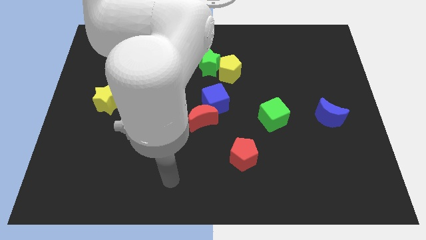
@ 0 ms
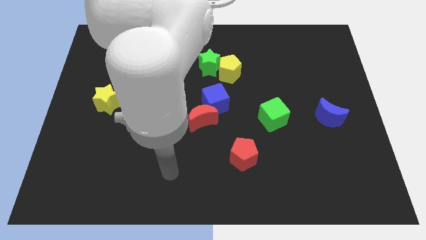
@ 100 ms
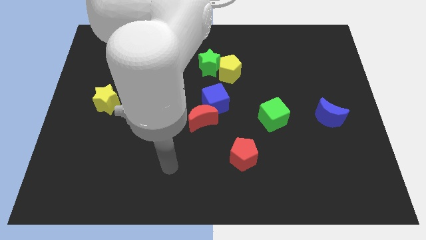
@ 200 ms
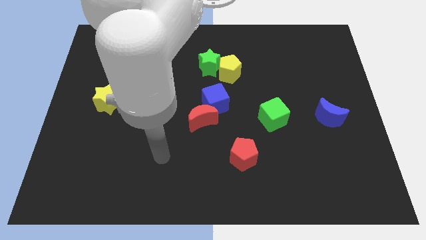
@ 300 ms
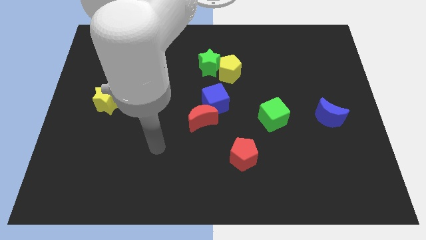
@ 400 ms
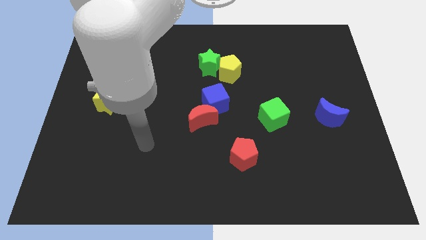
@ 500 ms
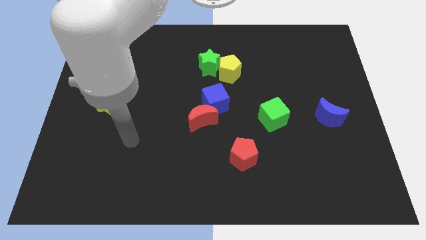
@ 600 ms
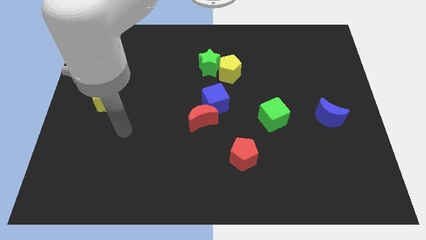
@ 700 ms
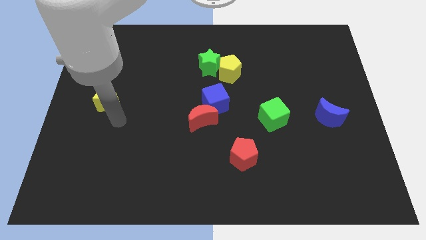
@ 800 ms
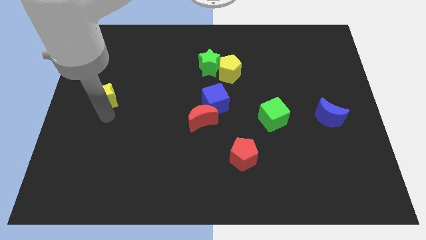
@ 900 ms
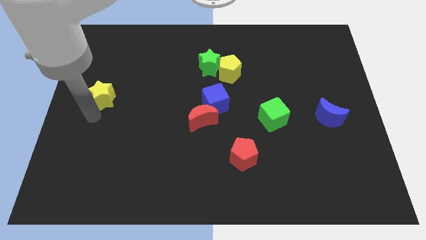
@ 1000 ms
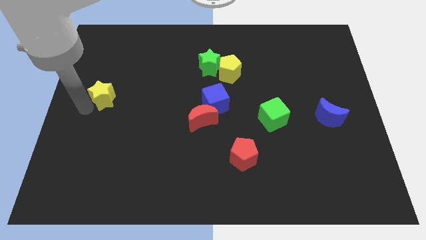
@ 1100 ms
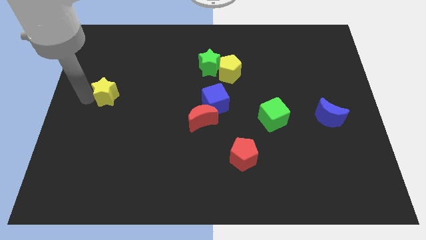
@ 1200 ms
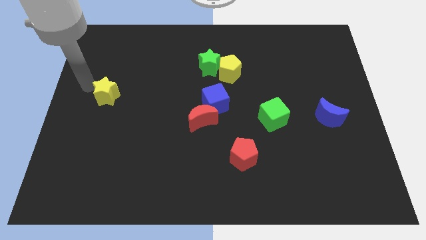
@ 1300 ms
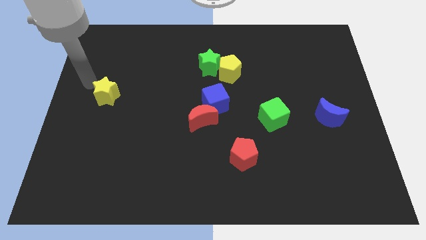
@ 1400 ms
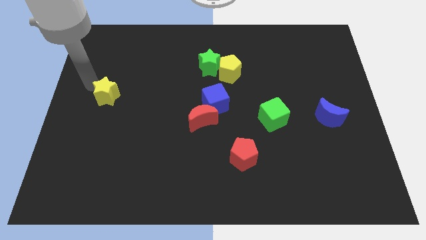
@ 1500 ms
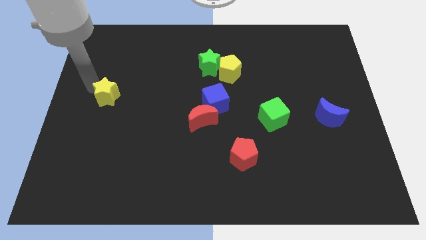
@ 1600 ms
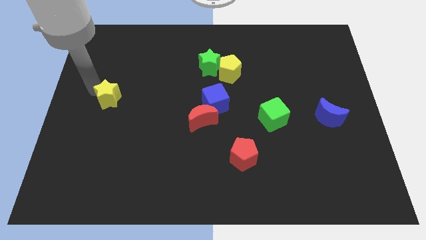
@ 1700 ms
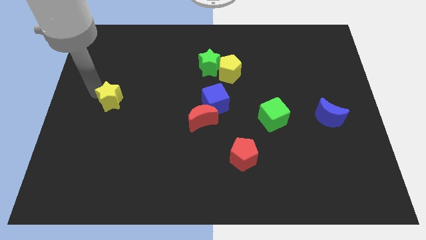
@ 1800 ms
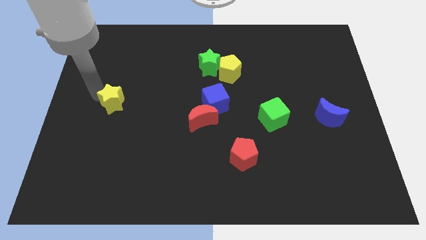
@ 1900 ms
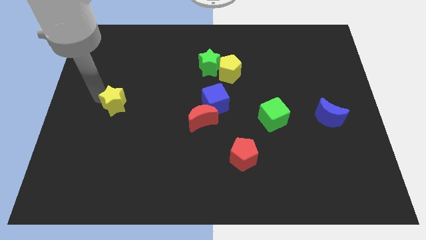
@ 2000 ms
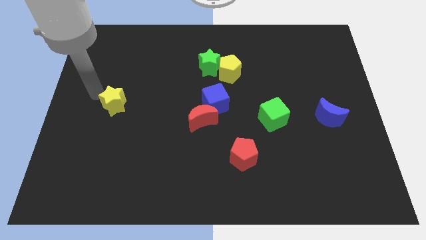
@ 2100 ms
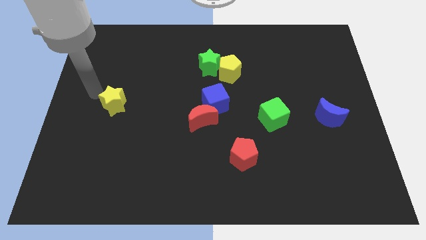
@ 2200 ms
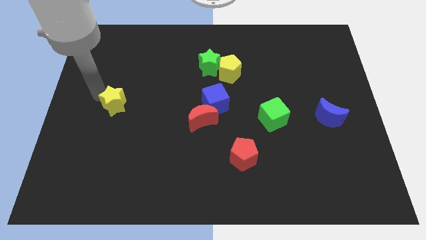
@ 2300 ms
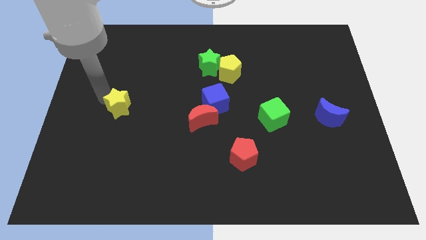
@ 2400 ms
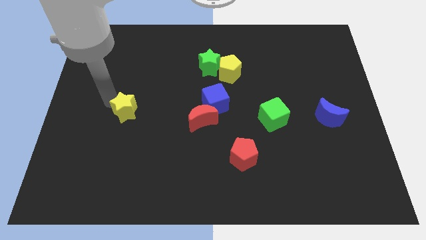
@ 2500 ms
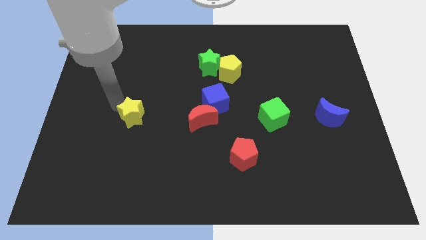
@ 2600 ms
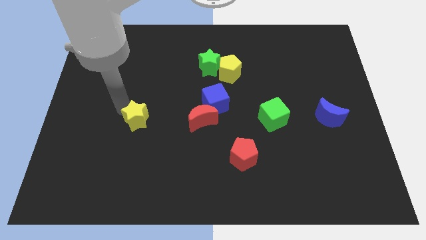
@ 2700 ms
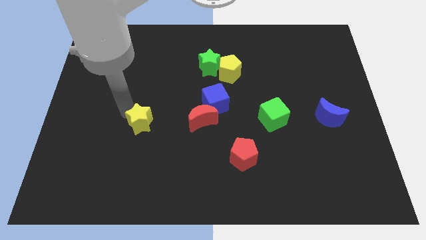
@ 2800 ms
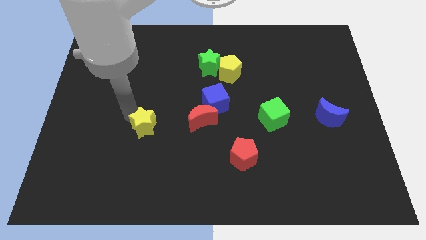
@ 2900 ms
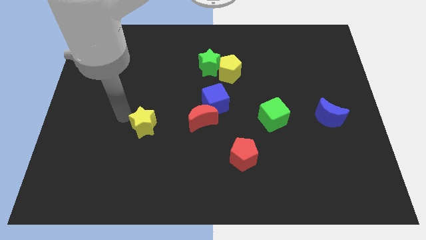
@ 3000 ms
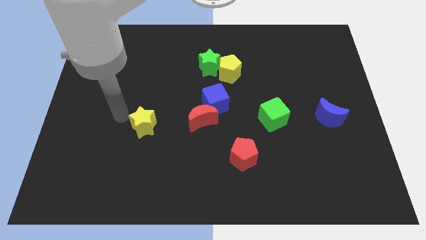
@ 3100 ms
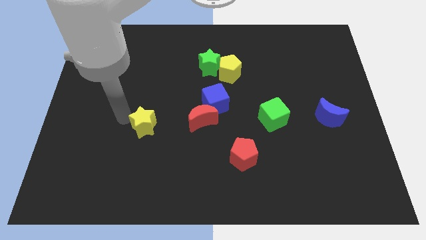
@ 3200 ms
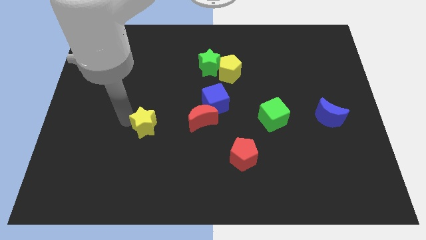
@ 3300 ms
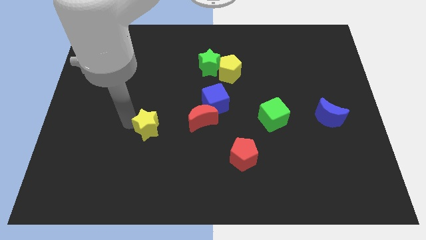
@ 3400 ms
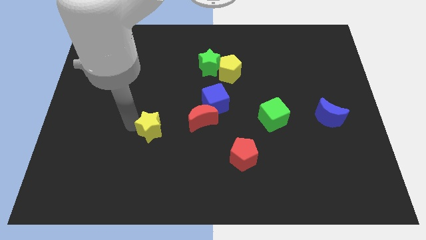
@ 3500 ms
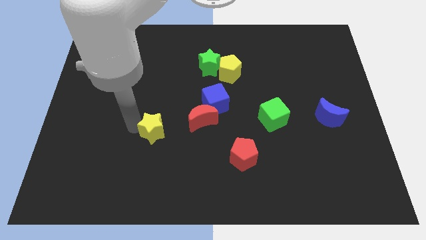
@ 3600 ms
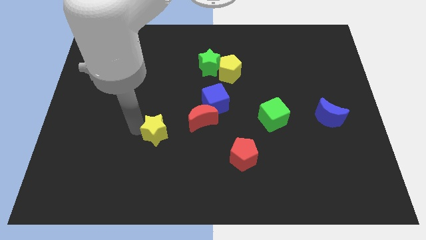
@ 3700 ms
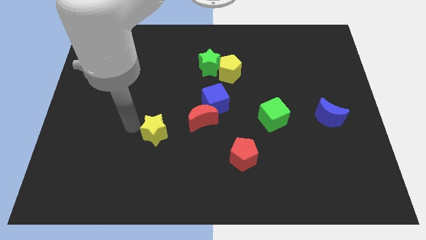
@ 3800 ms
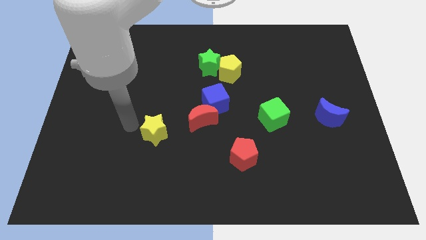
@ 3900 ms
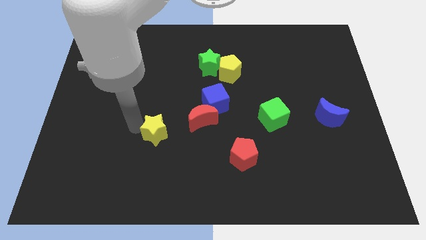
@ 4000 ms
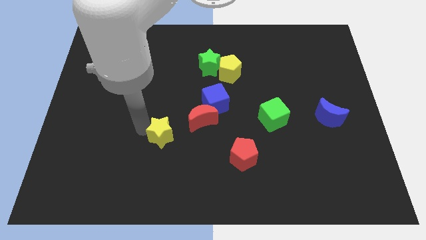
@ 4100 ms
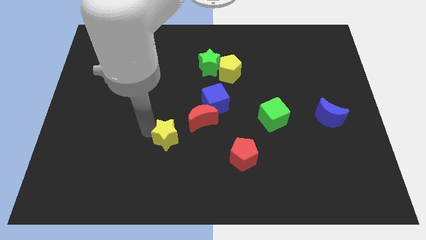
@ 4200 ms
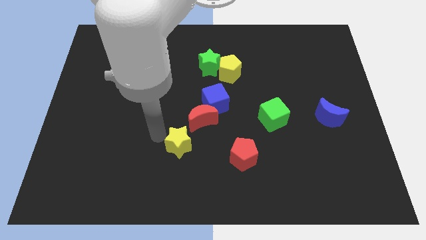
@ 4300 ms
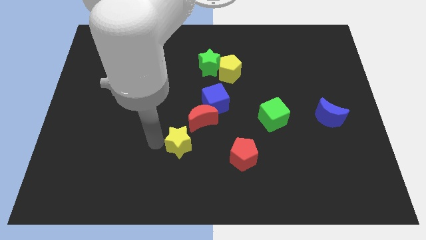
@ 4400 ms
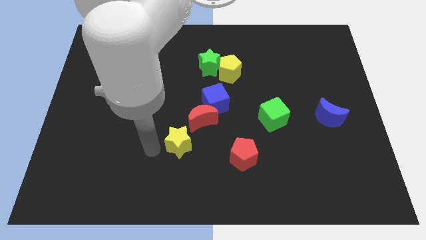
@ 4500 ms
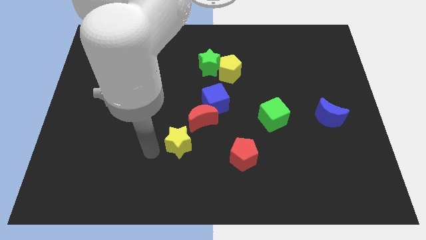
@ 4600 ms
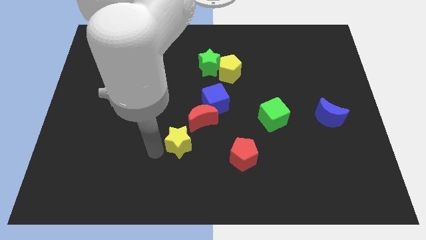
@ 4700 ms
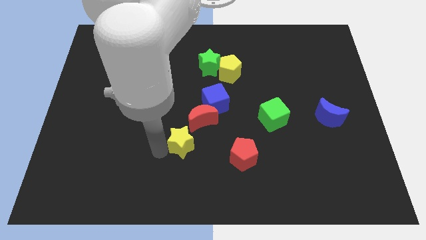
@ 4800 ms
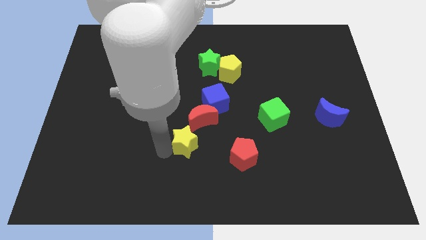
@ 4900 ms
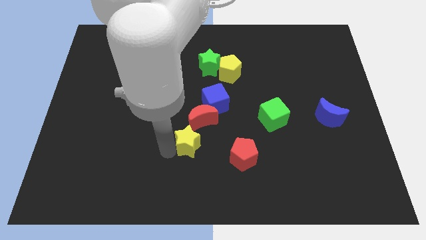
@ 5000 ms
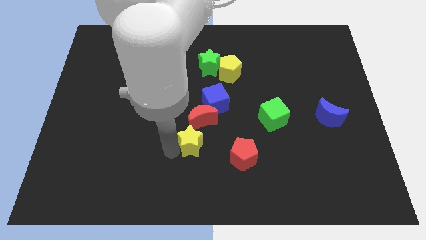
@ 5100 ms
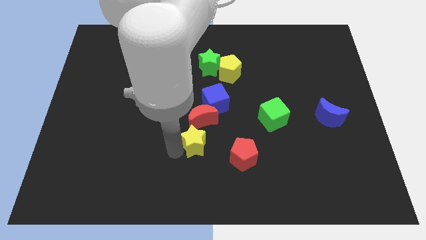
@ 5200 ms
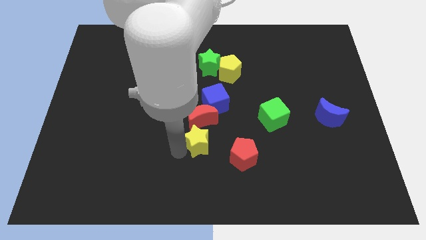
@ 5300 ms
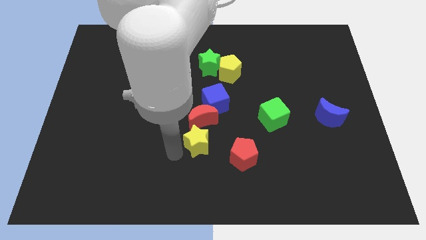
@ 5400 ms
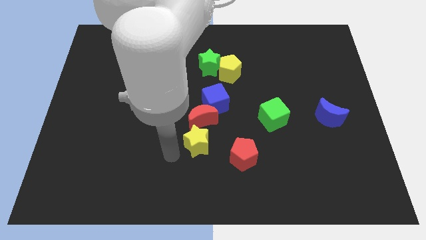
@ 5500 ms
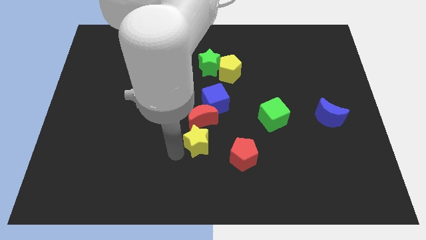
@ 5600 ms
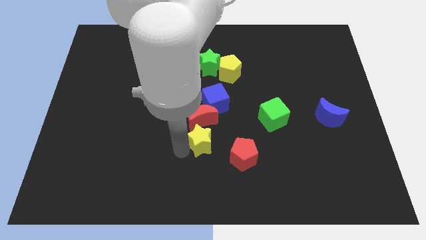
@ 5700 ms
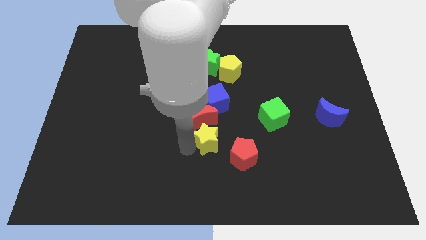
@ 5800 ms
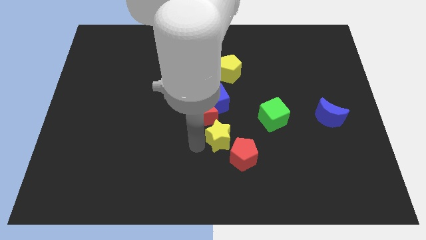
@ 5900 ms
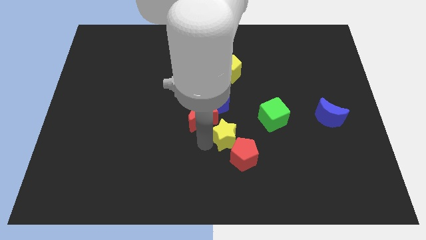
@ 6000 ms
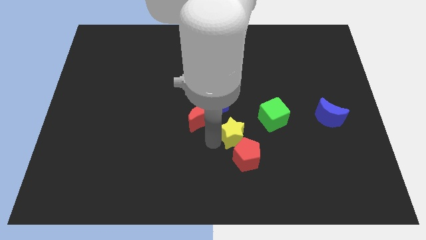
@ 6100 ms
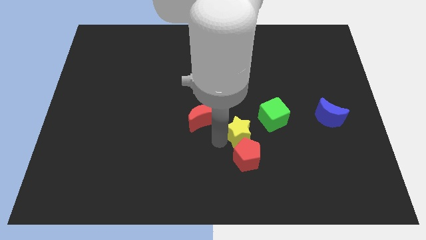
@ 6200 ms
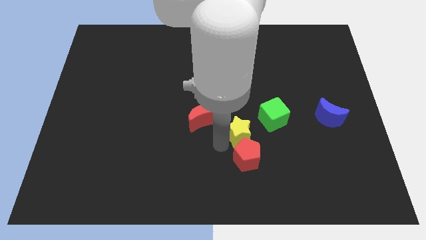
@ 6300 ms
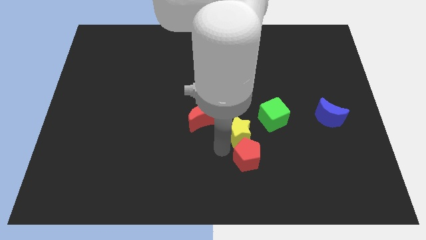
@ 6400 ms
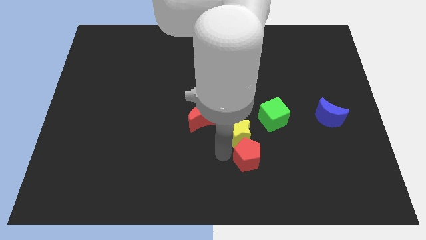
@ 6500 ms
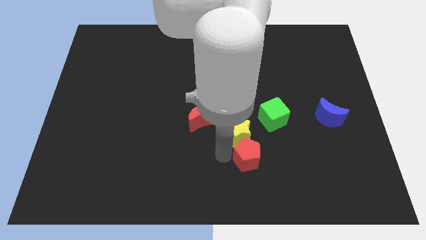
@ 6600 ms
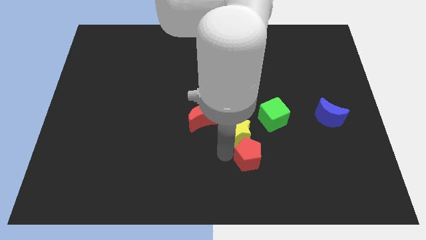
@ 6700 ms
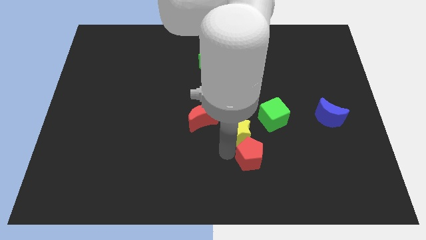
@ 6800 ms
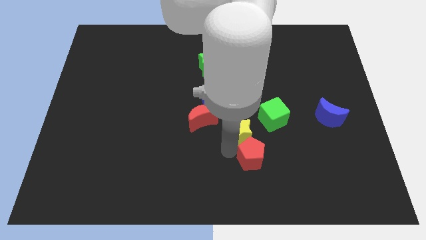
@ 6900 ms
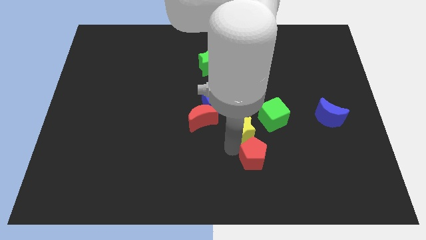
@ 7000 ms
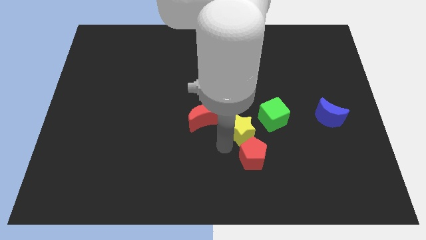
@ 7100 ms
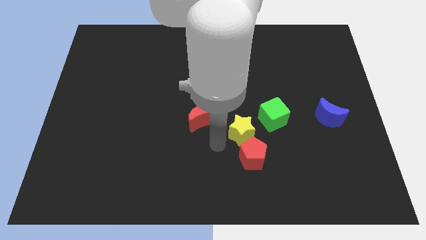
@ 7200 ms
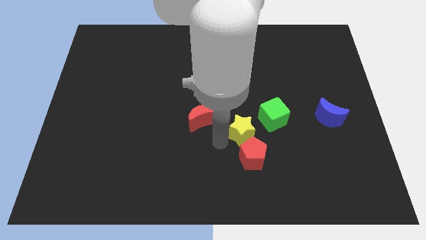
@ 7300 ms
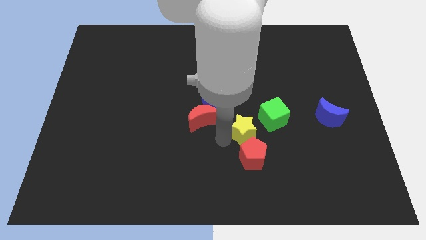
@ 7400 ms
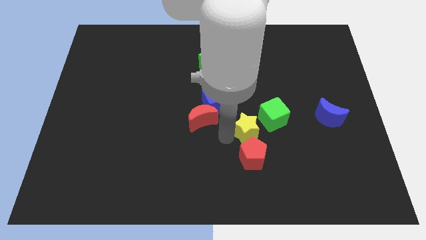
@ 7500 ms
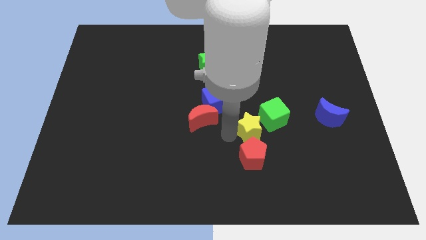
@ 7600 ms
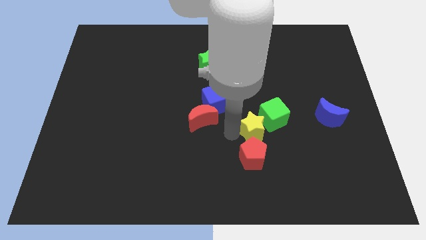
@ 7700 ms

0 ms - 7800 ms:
move the yellow star close to the green cube
